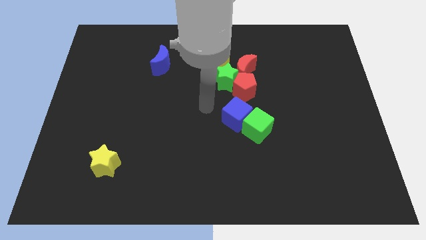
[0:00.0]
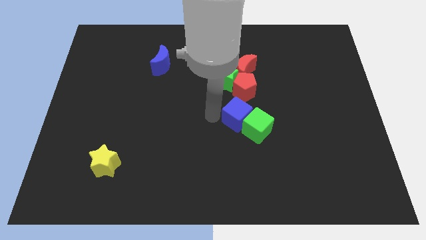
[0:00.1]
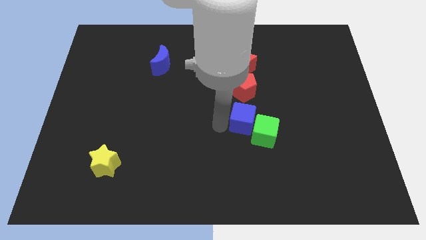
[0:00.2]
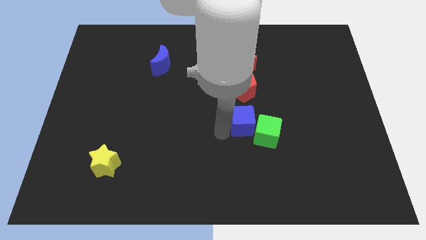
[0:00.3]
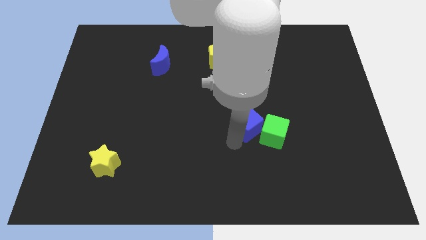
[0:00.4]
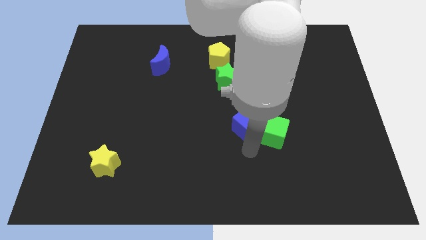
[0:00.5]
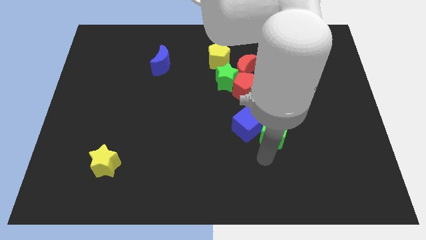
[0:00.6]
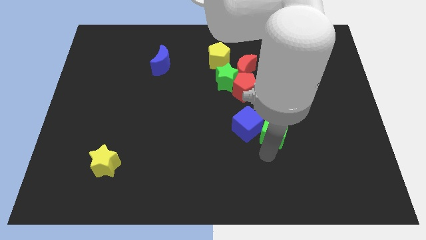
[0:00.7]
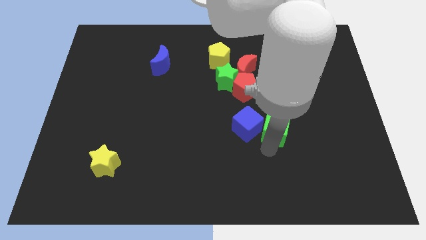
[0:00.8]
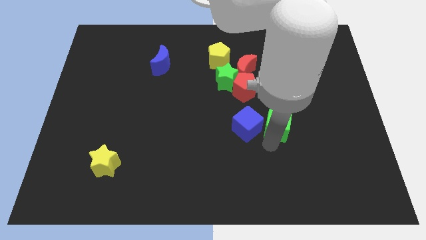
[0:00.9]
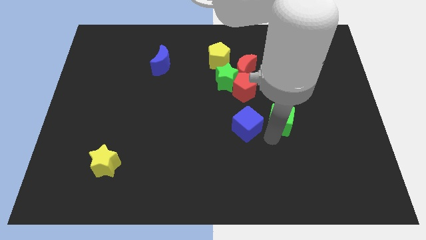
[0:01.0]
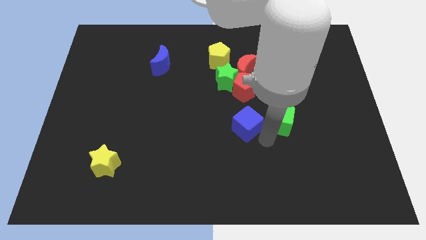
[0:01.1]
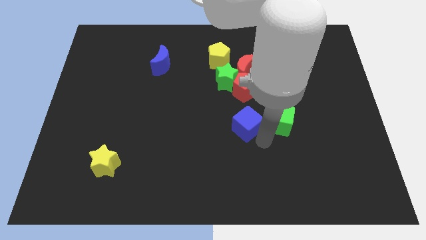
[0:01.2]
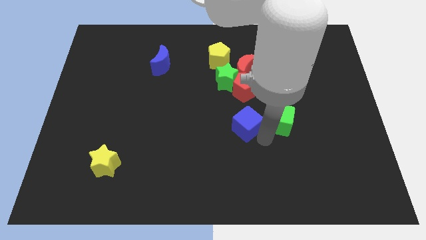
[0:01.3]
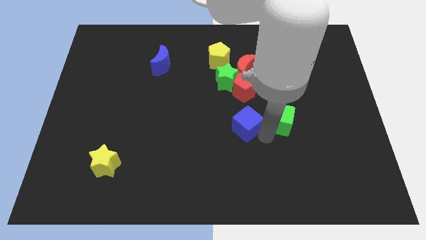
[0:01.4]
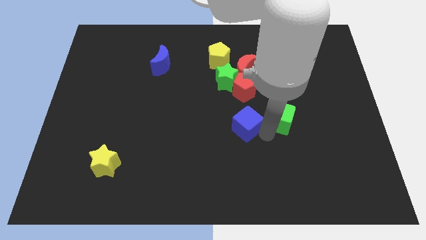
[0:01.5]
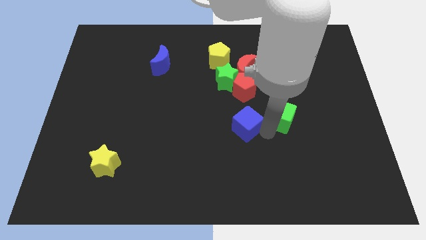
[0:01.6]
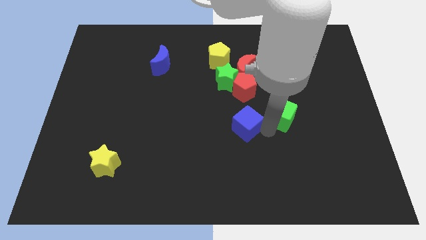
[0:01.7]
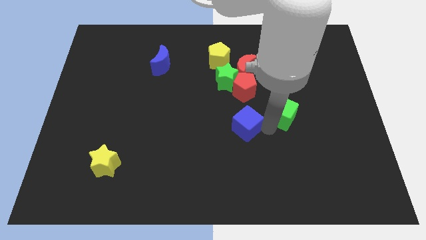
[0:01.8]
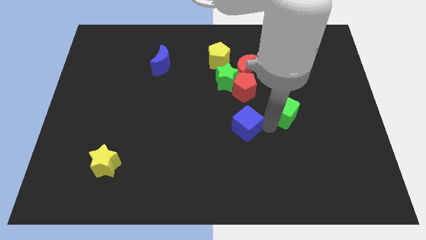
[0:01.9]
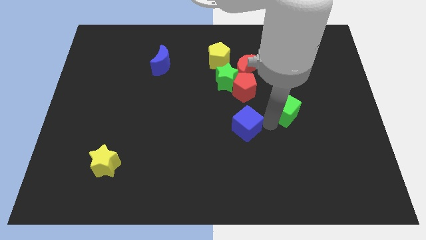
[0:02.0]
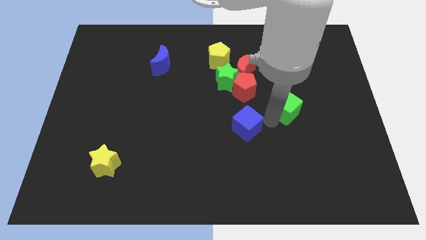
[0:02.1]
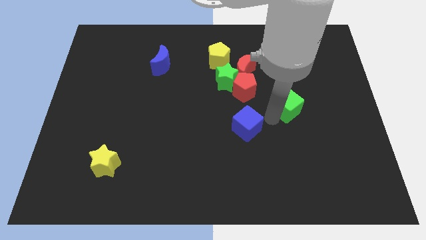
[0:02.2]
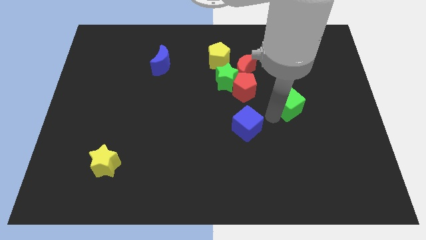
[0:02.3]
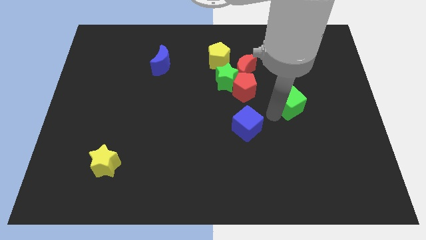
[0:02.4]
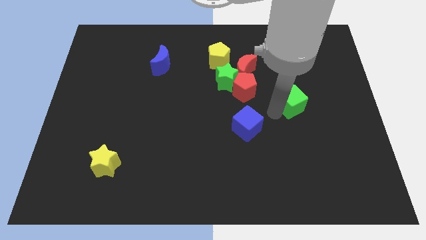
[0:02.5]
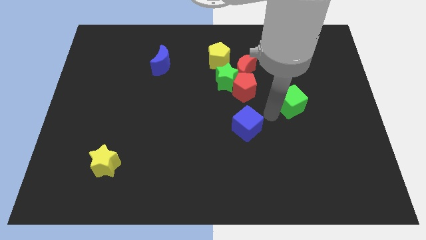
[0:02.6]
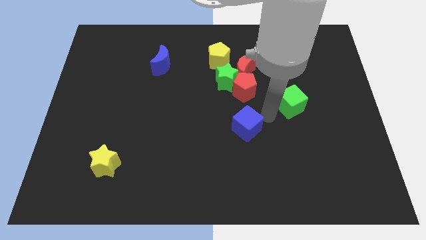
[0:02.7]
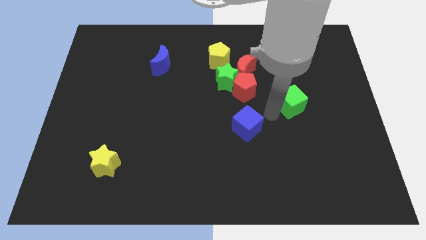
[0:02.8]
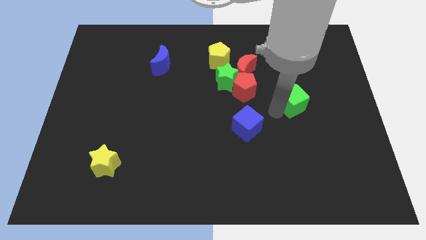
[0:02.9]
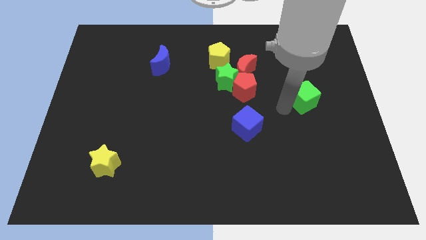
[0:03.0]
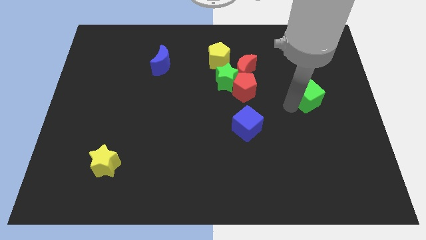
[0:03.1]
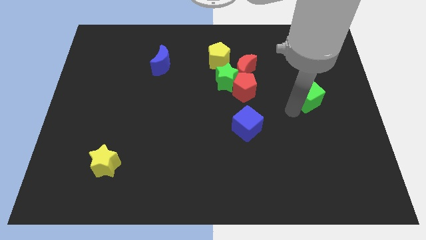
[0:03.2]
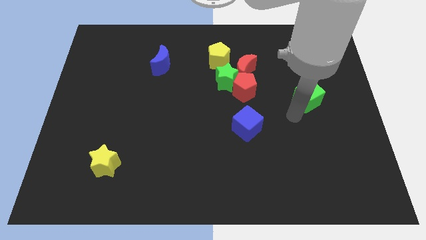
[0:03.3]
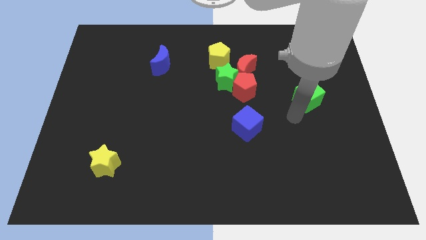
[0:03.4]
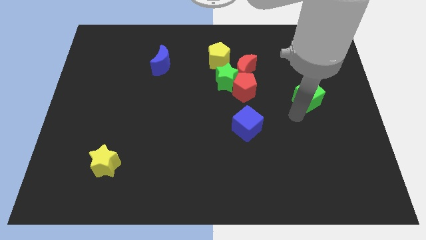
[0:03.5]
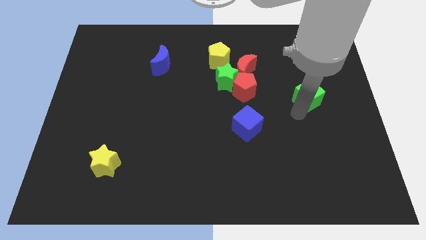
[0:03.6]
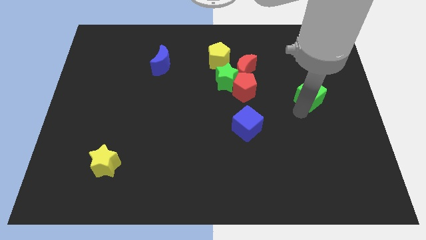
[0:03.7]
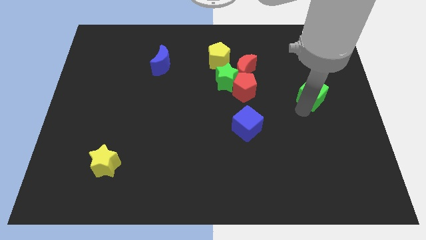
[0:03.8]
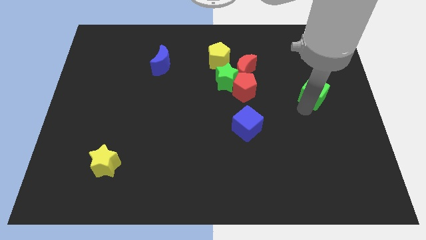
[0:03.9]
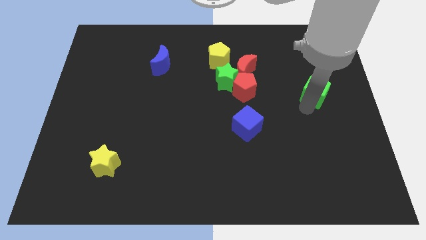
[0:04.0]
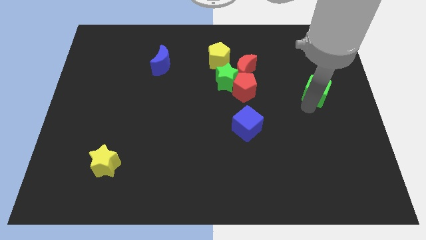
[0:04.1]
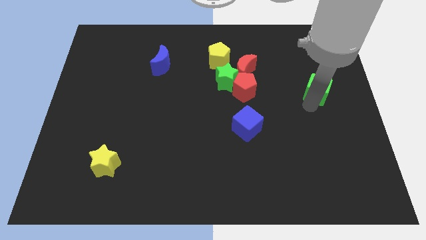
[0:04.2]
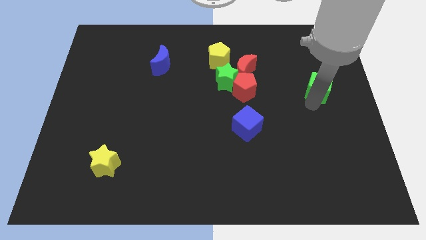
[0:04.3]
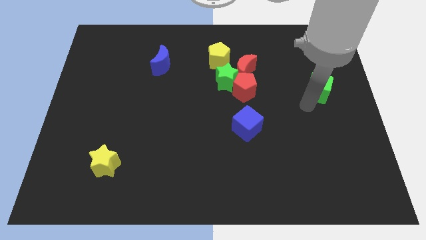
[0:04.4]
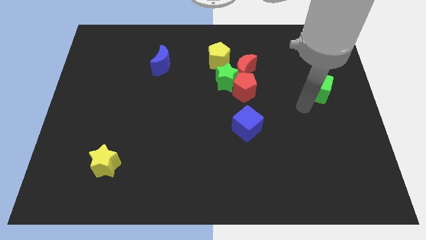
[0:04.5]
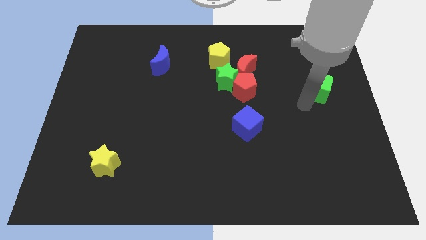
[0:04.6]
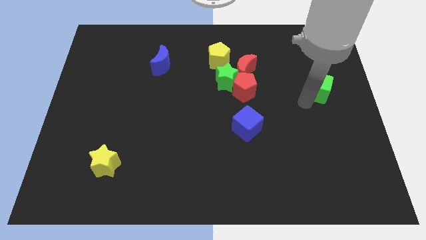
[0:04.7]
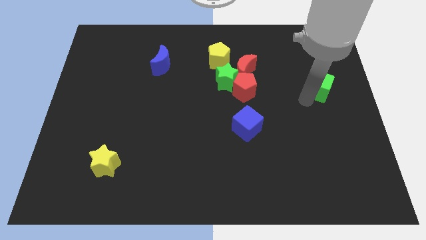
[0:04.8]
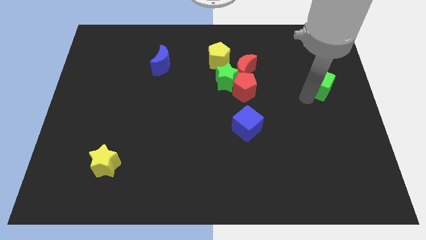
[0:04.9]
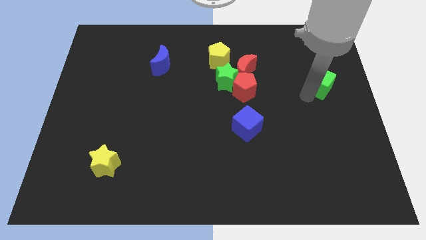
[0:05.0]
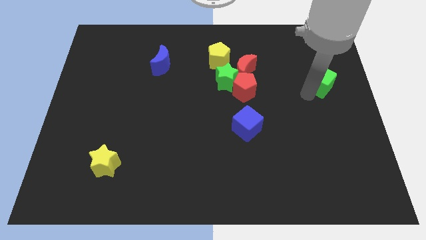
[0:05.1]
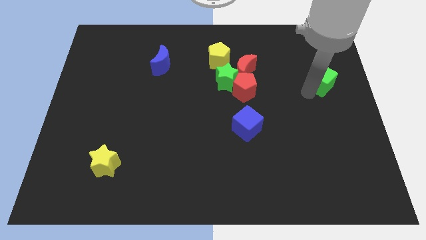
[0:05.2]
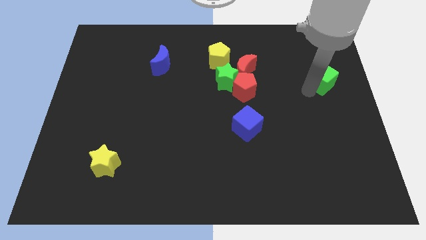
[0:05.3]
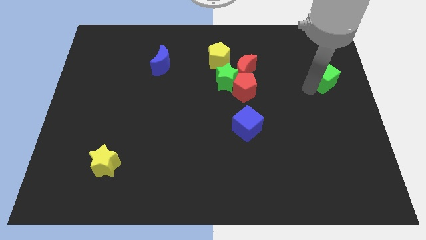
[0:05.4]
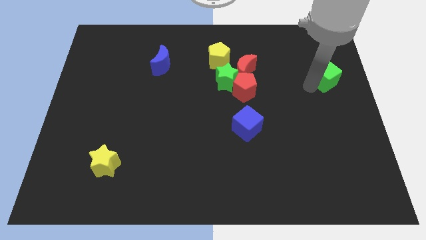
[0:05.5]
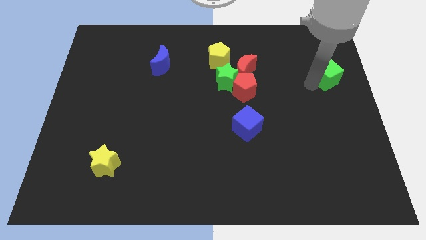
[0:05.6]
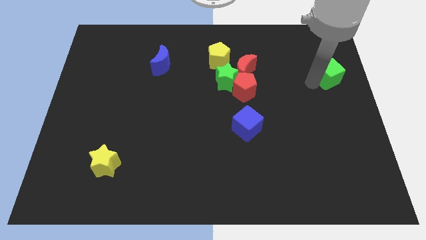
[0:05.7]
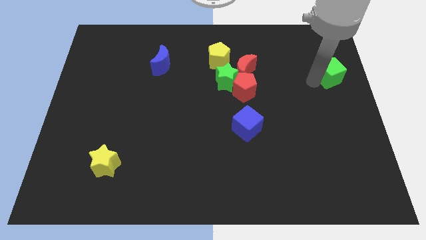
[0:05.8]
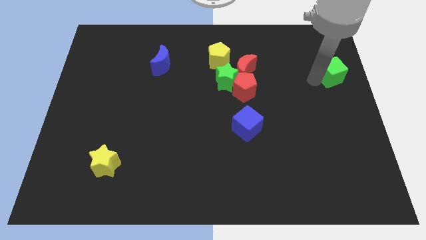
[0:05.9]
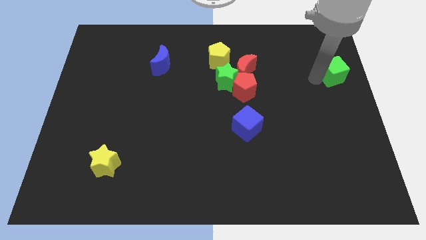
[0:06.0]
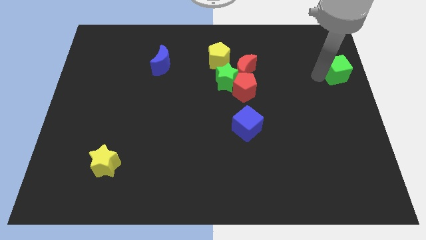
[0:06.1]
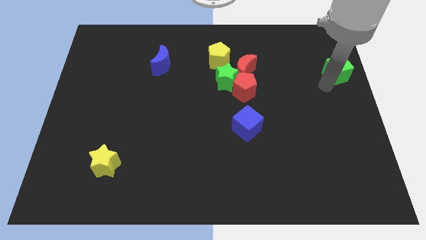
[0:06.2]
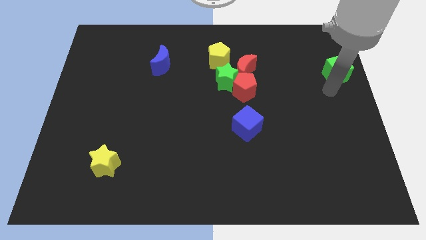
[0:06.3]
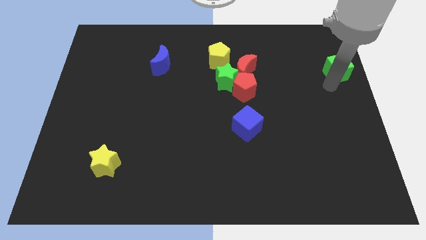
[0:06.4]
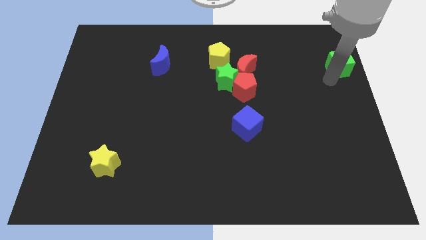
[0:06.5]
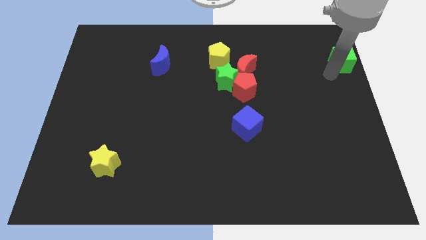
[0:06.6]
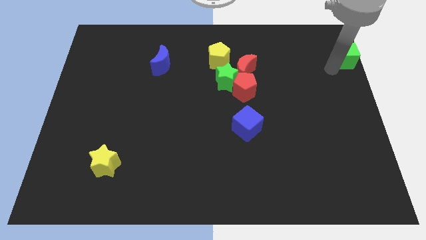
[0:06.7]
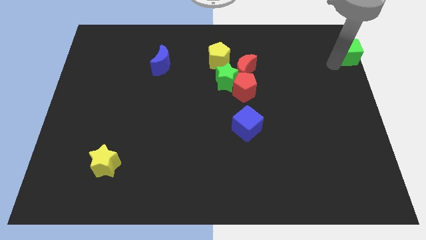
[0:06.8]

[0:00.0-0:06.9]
push the green cube to the top right
